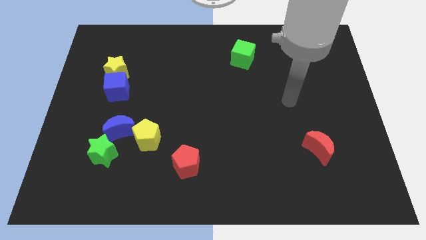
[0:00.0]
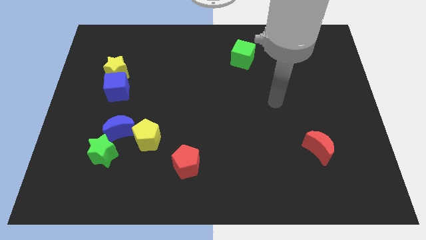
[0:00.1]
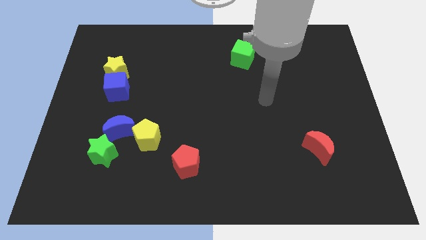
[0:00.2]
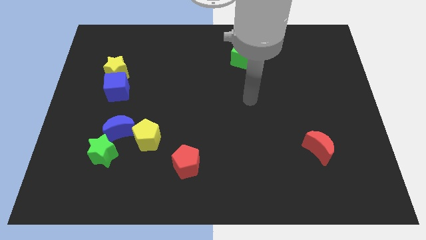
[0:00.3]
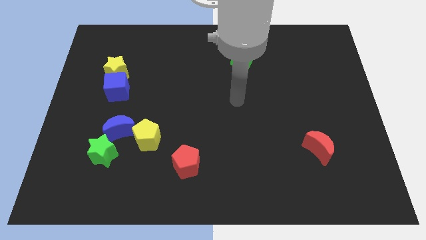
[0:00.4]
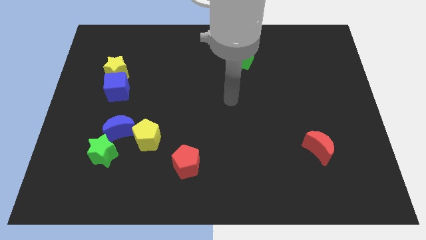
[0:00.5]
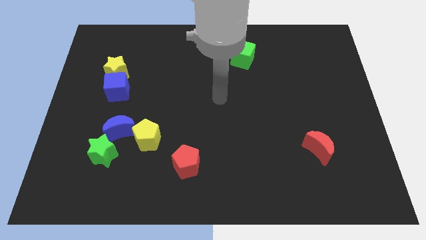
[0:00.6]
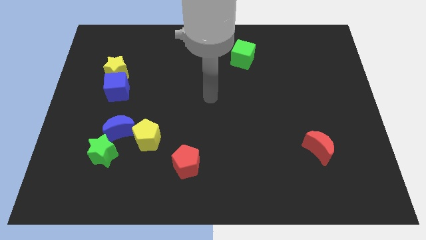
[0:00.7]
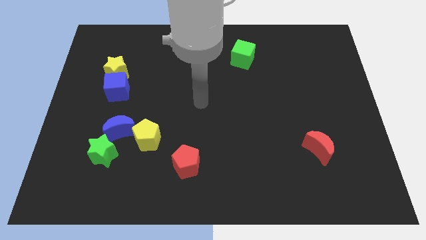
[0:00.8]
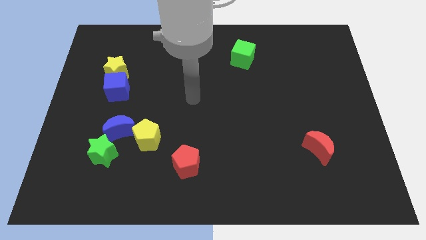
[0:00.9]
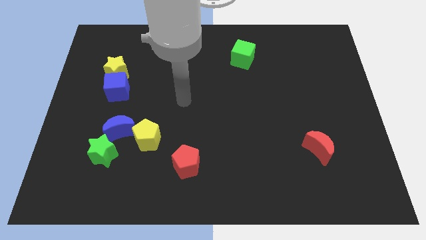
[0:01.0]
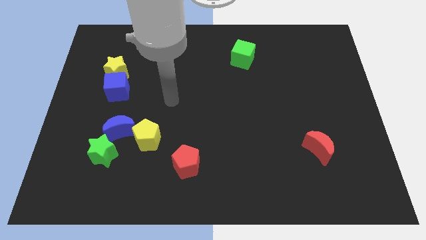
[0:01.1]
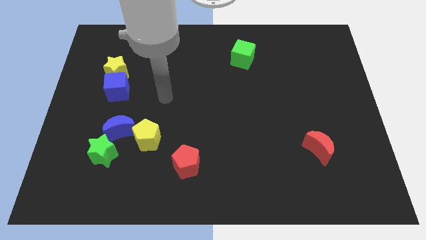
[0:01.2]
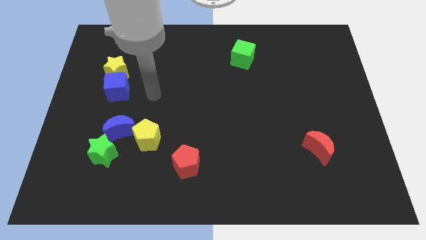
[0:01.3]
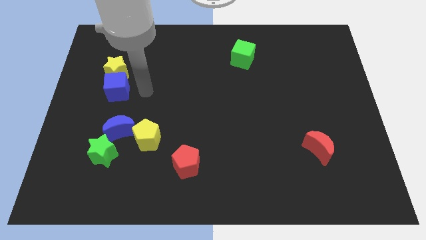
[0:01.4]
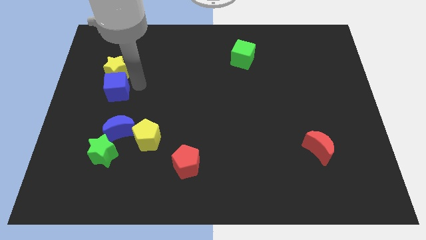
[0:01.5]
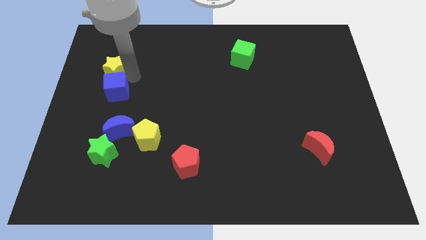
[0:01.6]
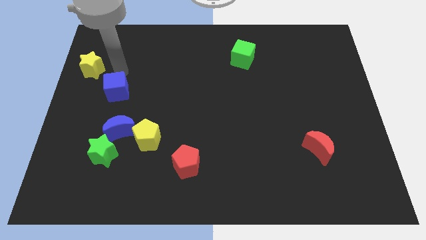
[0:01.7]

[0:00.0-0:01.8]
separate the blue cube from the yellow star

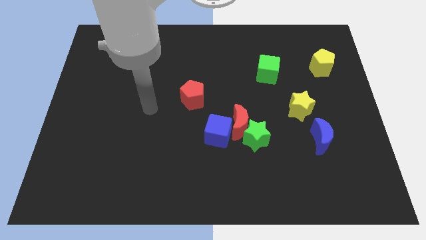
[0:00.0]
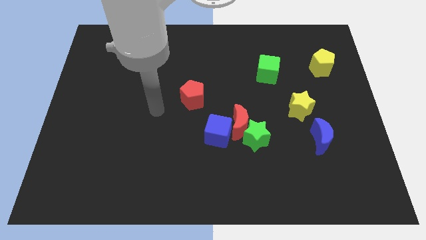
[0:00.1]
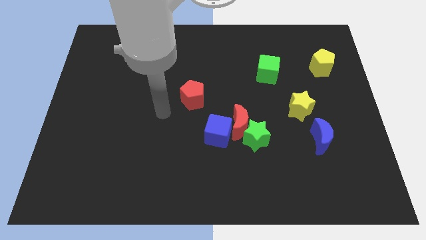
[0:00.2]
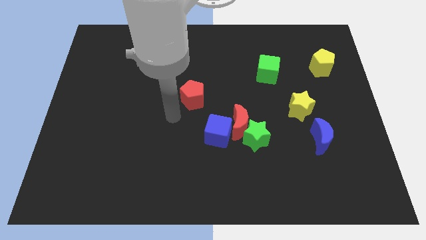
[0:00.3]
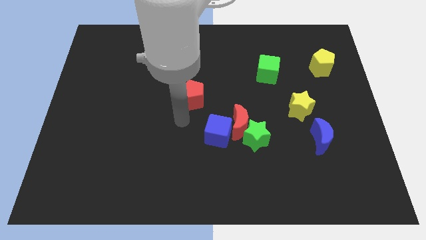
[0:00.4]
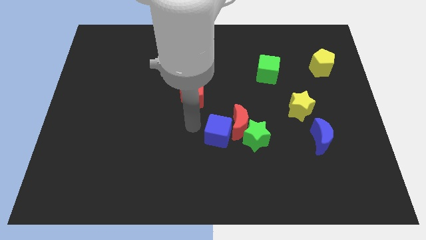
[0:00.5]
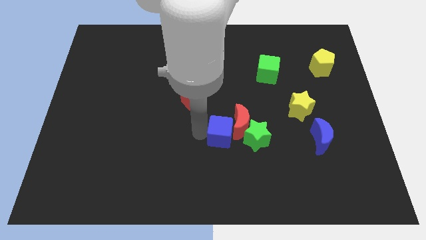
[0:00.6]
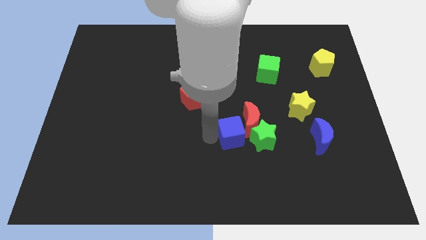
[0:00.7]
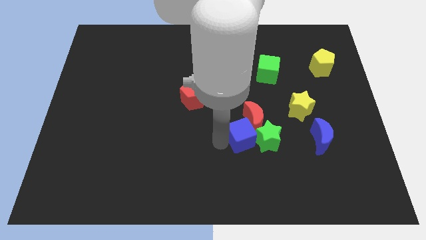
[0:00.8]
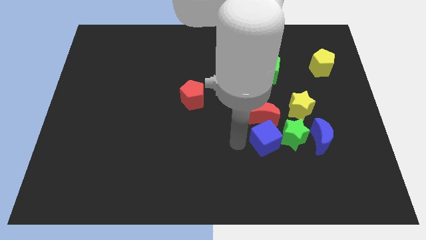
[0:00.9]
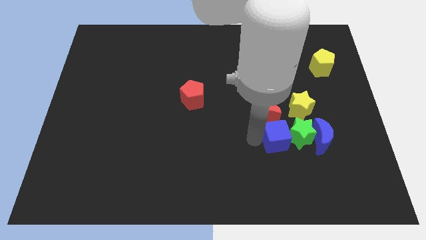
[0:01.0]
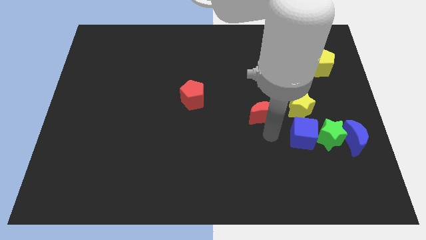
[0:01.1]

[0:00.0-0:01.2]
pull the red moon apart from the green star and blue cube

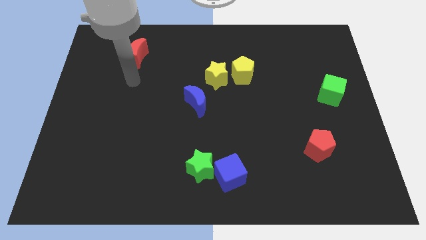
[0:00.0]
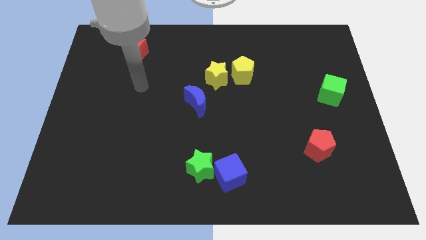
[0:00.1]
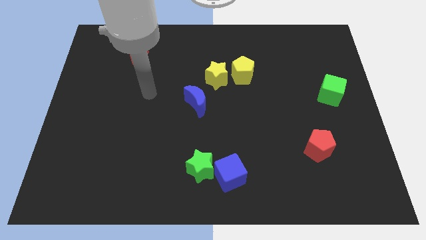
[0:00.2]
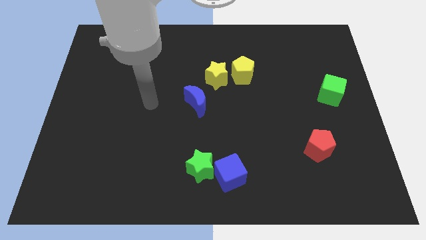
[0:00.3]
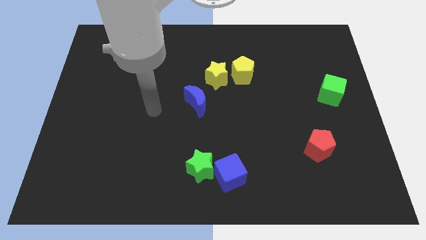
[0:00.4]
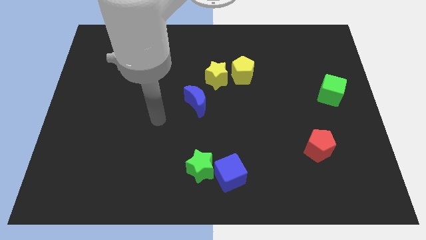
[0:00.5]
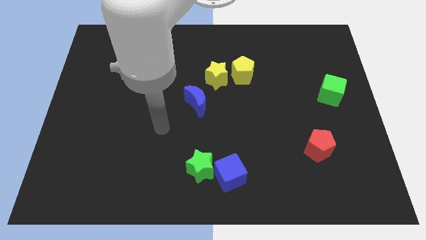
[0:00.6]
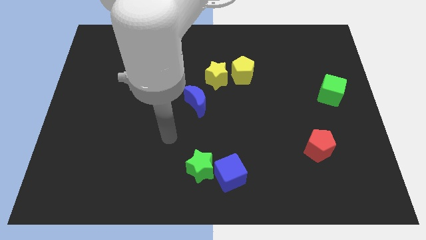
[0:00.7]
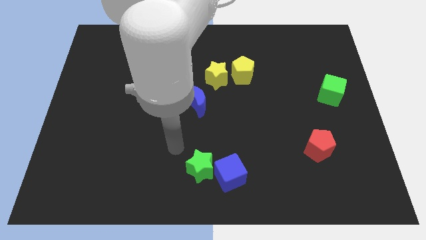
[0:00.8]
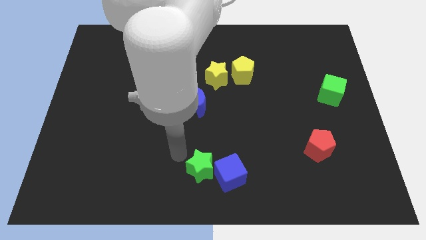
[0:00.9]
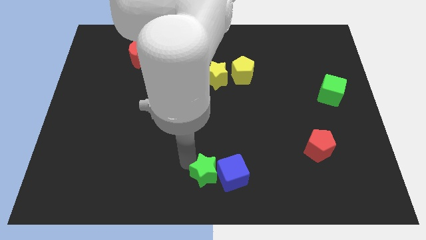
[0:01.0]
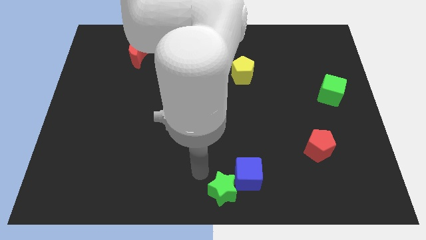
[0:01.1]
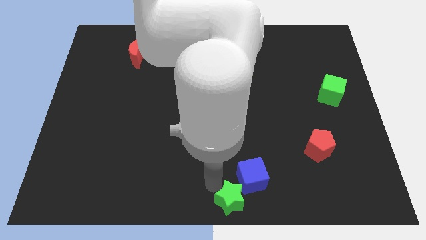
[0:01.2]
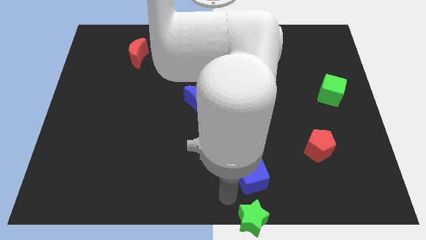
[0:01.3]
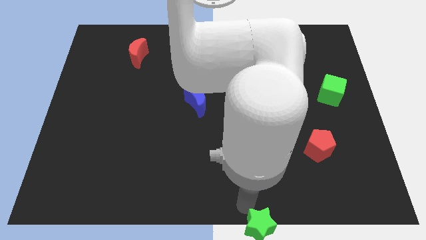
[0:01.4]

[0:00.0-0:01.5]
move the blue cube away from the green star

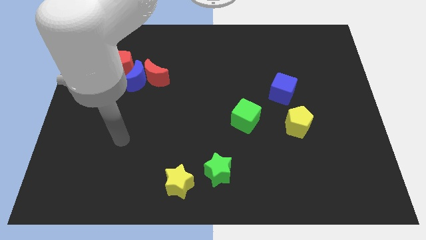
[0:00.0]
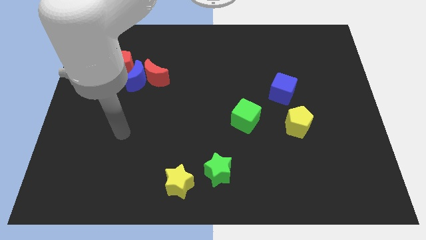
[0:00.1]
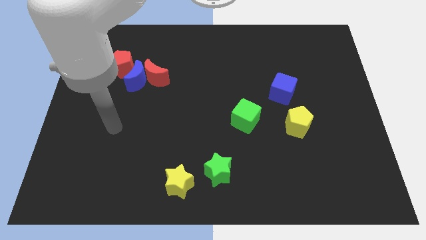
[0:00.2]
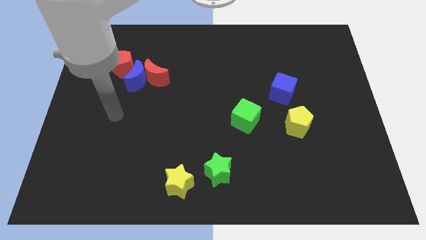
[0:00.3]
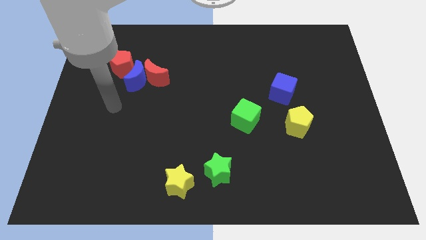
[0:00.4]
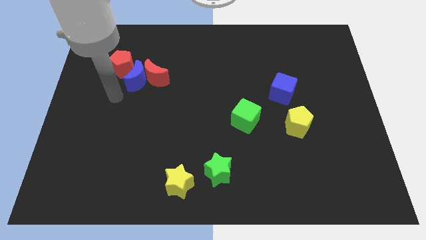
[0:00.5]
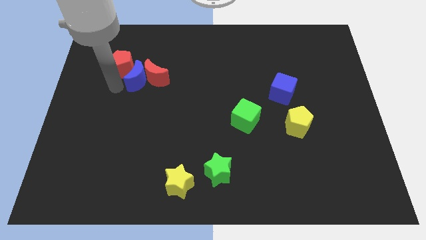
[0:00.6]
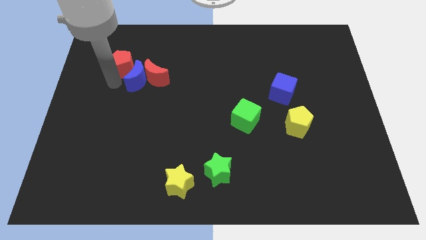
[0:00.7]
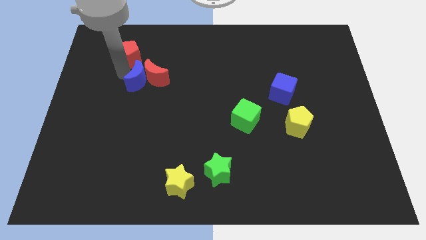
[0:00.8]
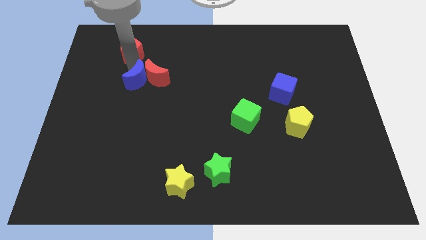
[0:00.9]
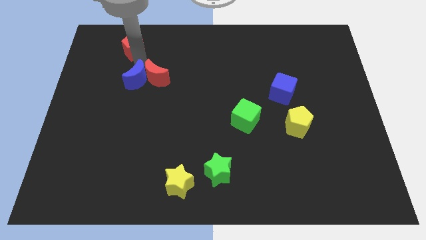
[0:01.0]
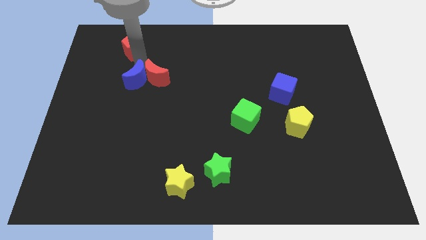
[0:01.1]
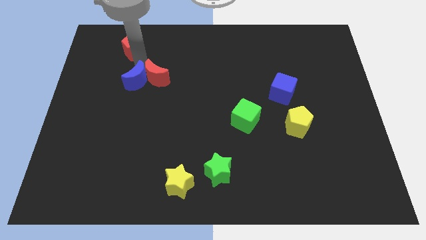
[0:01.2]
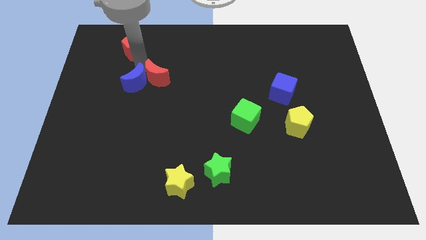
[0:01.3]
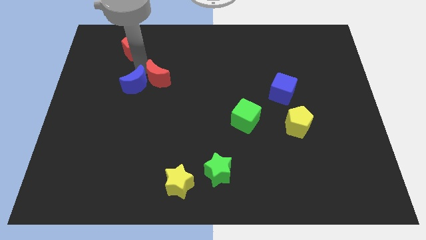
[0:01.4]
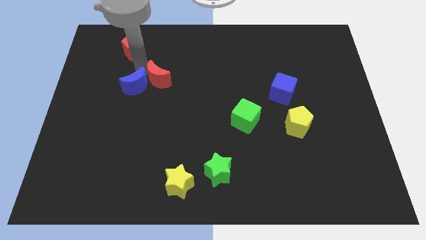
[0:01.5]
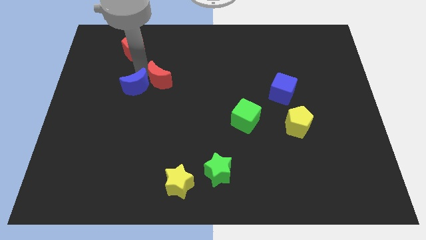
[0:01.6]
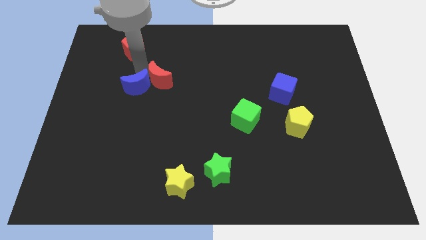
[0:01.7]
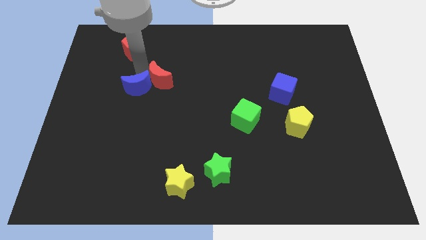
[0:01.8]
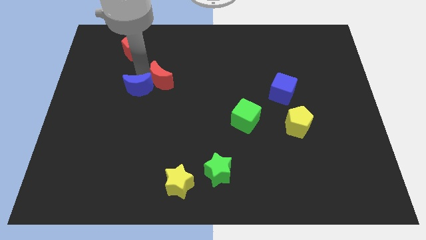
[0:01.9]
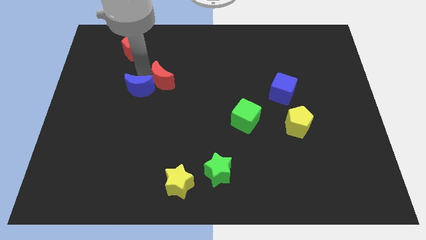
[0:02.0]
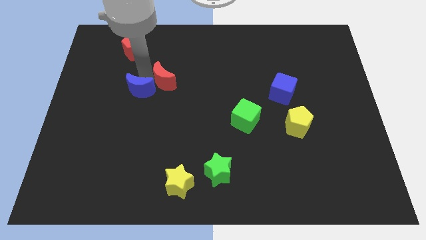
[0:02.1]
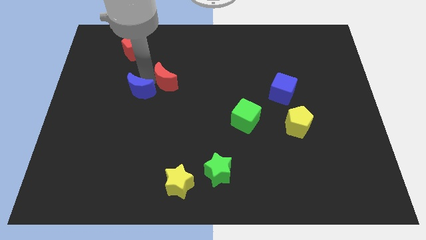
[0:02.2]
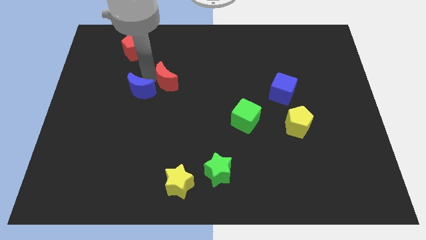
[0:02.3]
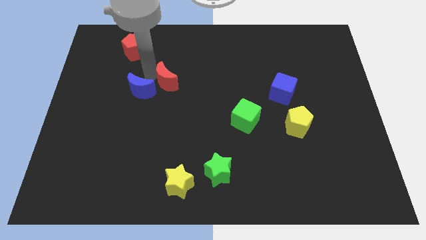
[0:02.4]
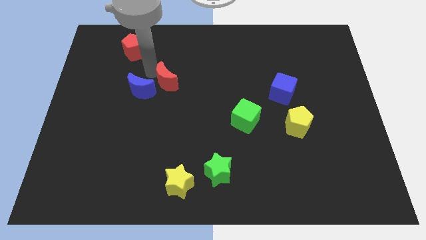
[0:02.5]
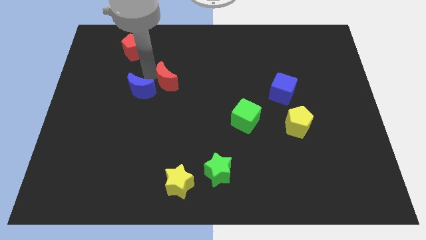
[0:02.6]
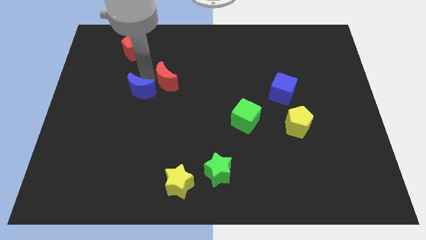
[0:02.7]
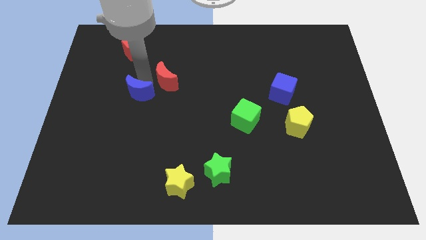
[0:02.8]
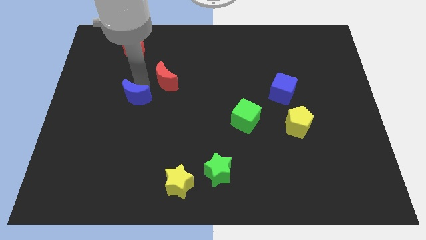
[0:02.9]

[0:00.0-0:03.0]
pull the blue moon apart from the red moon and red pentagon

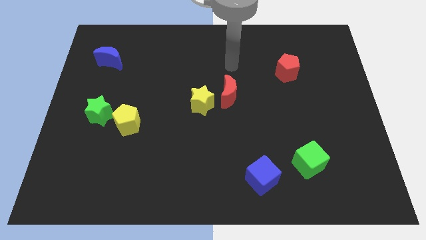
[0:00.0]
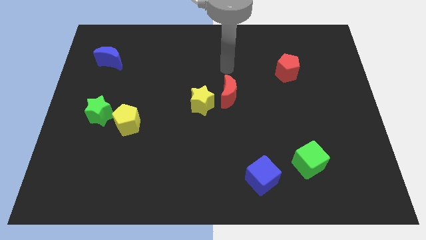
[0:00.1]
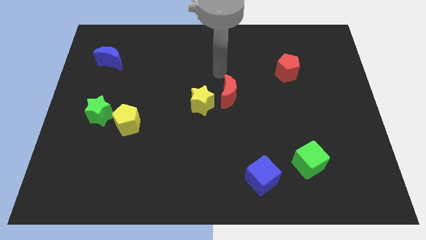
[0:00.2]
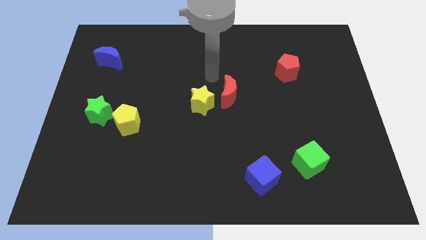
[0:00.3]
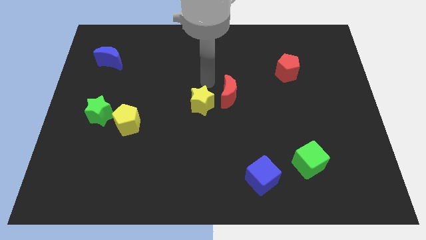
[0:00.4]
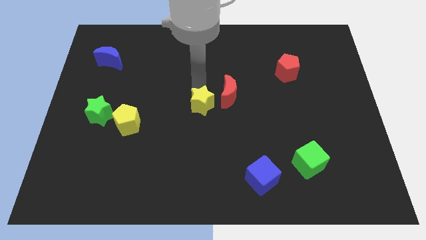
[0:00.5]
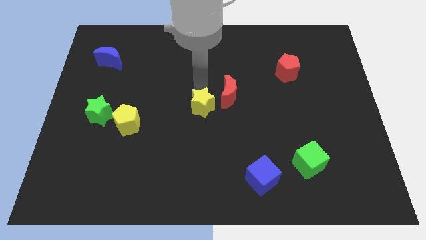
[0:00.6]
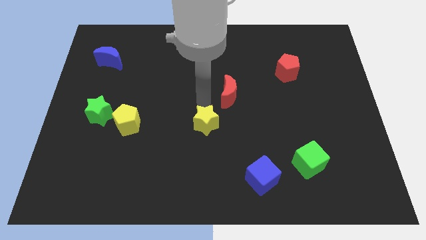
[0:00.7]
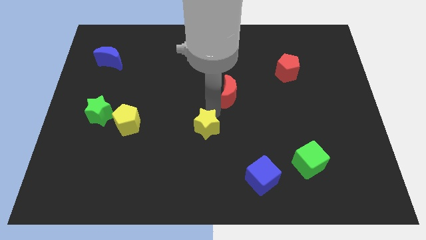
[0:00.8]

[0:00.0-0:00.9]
move the red moon away from the yellow star

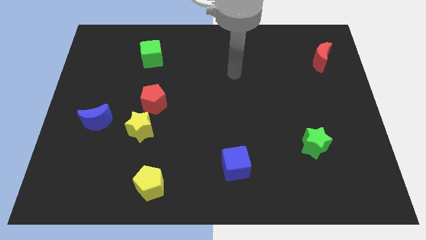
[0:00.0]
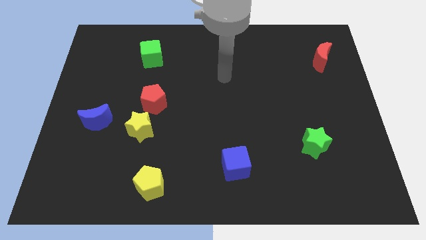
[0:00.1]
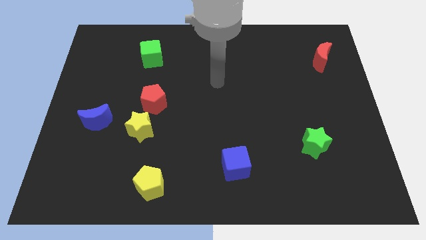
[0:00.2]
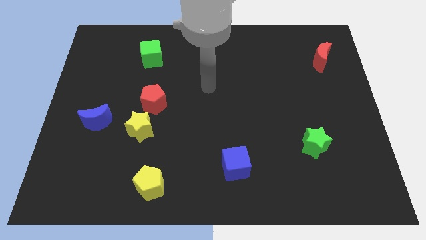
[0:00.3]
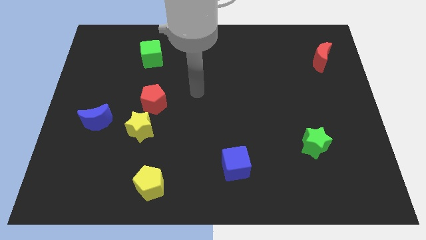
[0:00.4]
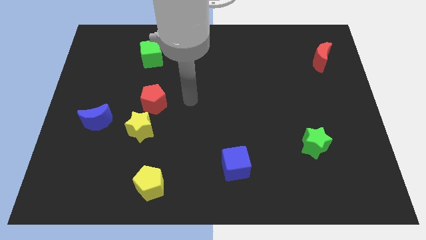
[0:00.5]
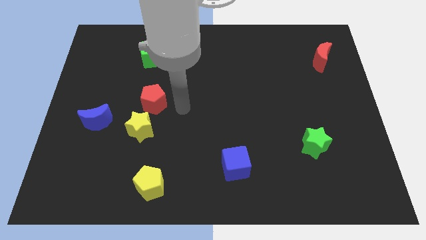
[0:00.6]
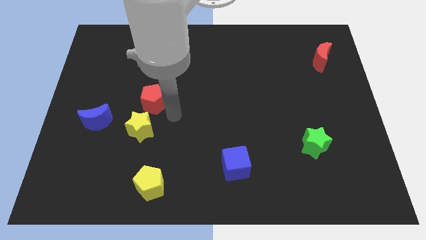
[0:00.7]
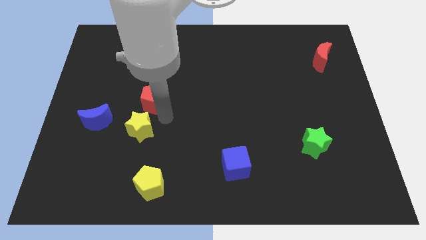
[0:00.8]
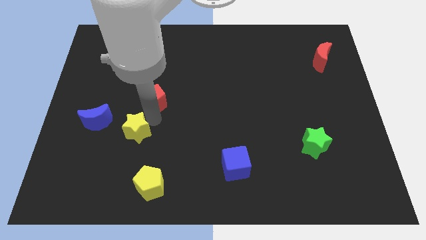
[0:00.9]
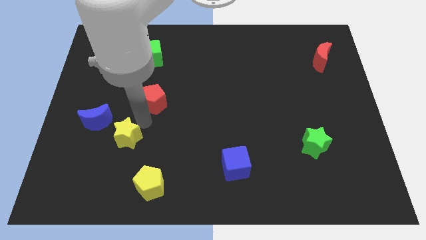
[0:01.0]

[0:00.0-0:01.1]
separate the red pentagon from the yellow star

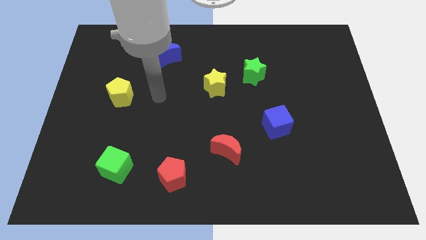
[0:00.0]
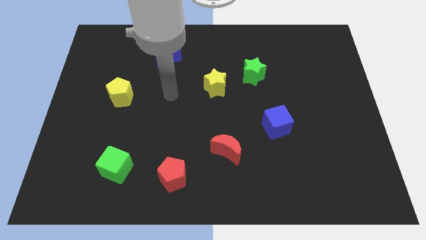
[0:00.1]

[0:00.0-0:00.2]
move the green star away from the yellow star
